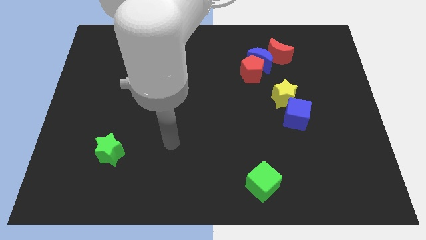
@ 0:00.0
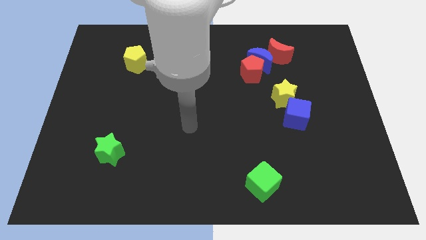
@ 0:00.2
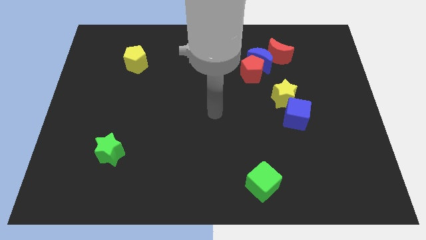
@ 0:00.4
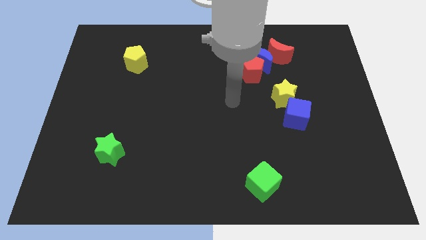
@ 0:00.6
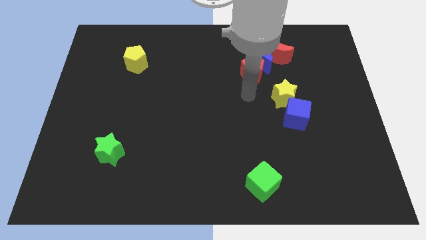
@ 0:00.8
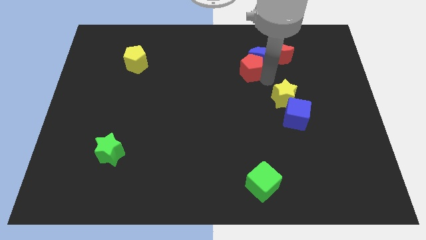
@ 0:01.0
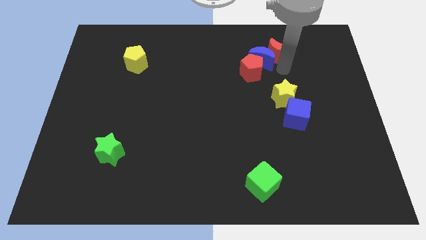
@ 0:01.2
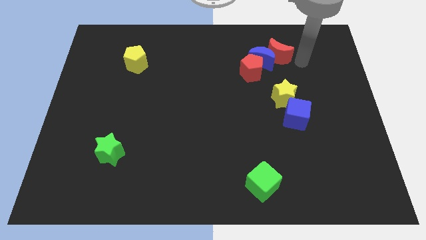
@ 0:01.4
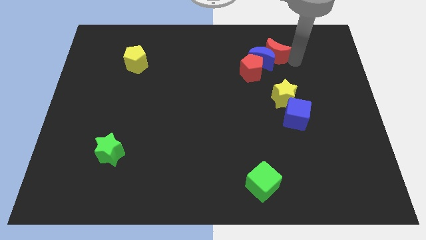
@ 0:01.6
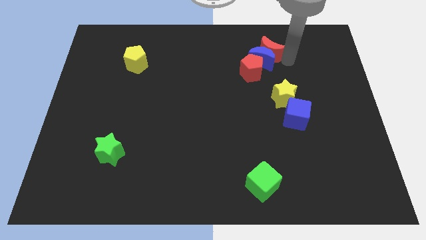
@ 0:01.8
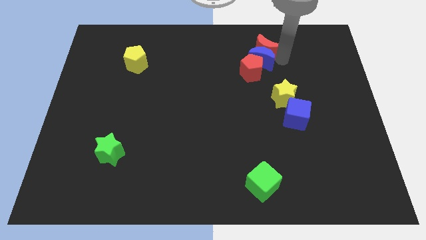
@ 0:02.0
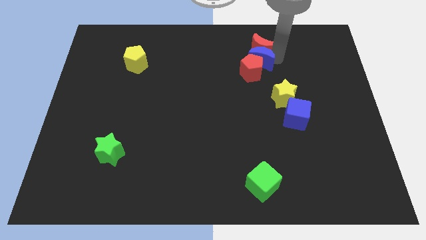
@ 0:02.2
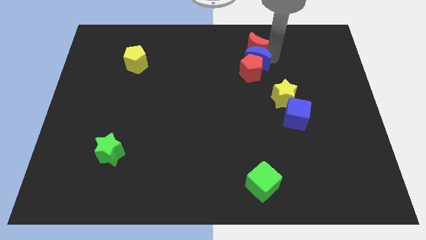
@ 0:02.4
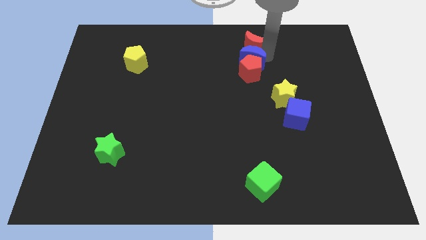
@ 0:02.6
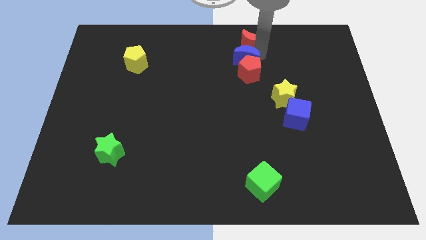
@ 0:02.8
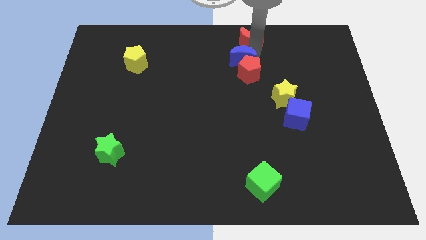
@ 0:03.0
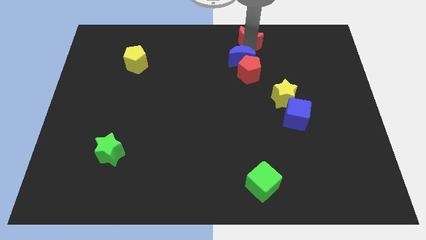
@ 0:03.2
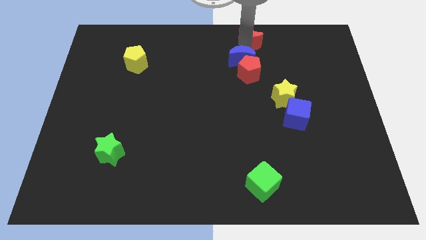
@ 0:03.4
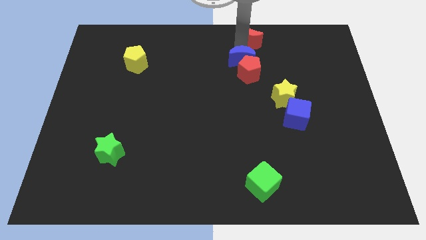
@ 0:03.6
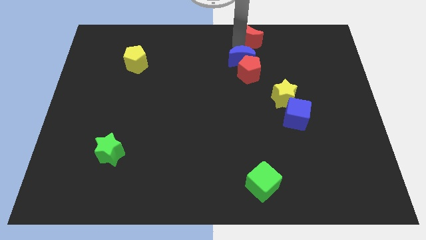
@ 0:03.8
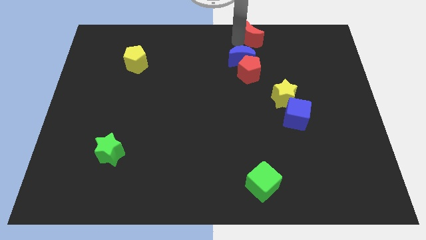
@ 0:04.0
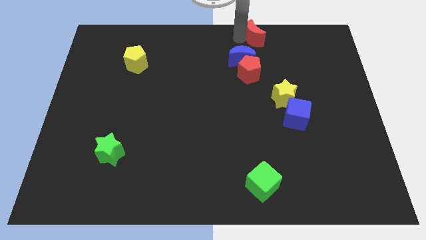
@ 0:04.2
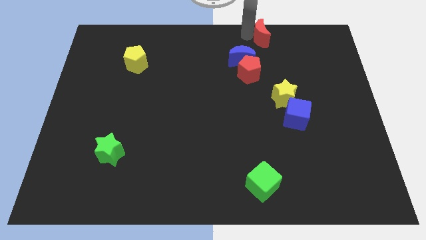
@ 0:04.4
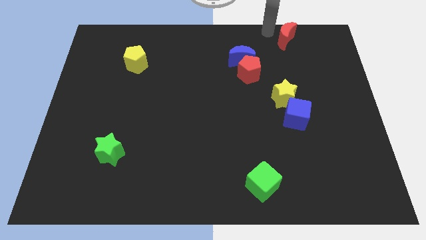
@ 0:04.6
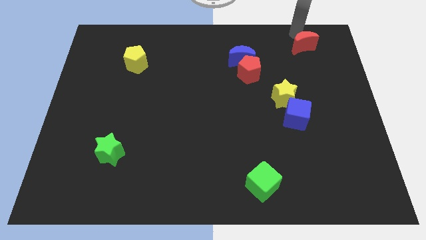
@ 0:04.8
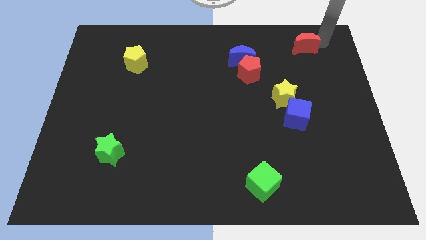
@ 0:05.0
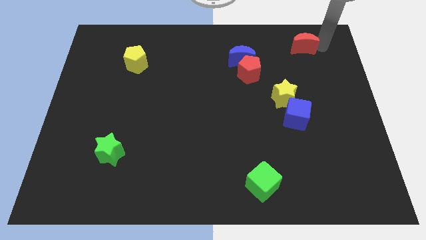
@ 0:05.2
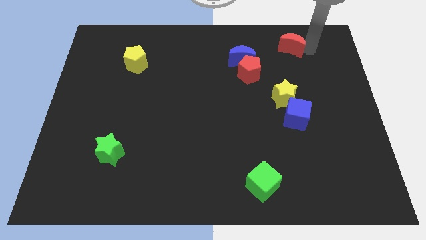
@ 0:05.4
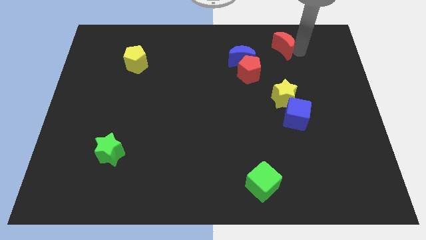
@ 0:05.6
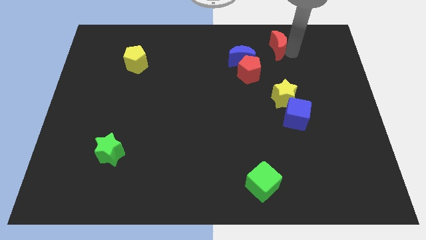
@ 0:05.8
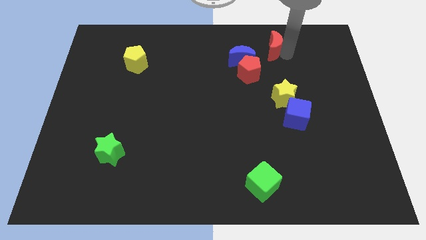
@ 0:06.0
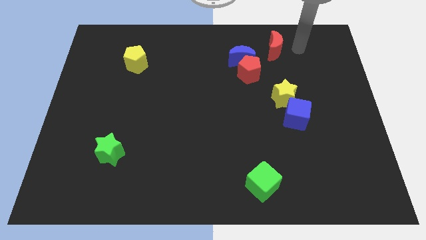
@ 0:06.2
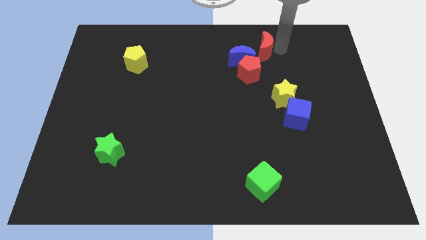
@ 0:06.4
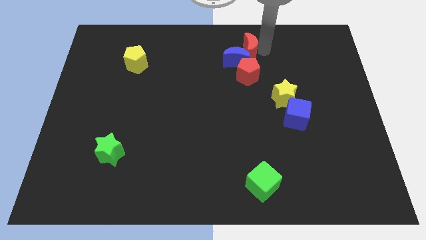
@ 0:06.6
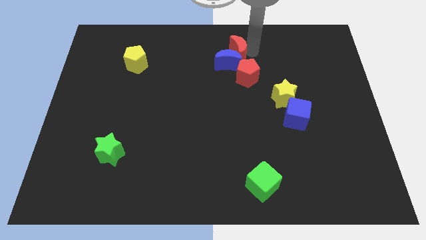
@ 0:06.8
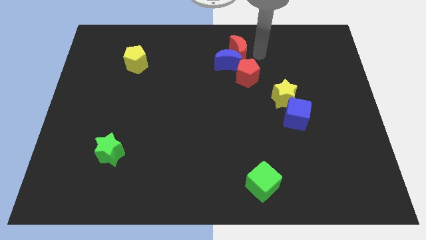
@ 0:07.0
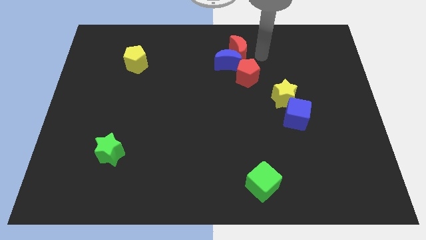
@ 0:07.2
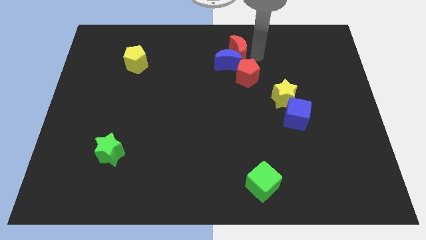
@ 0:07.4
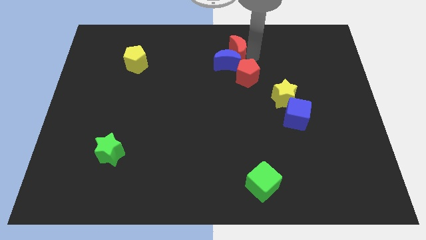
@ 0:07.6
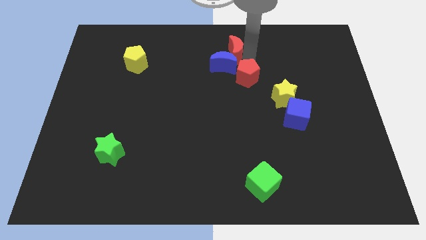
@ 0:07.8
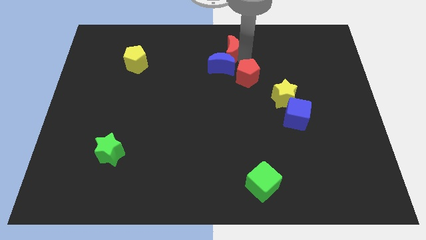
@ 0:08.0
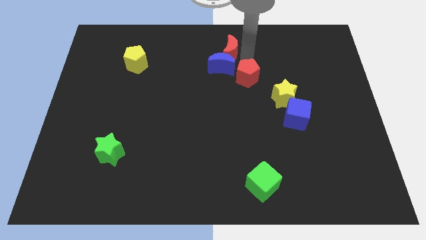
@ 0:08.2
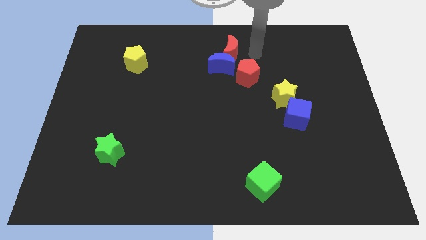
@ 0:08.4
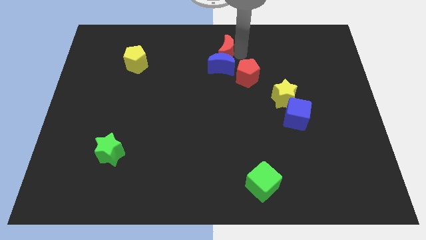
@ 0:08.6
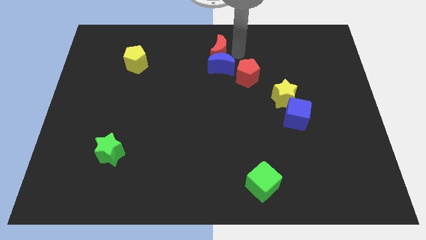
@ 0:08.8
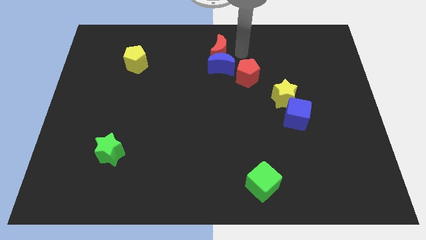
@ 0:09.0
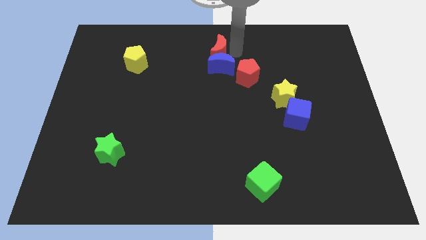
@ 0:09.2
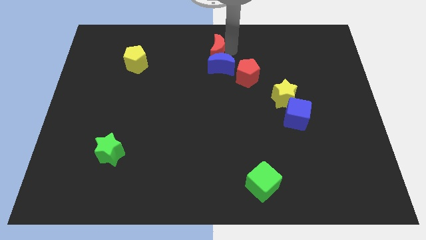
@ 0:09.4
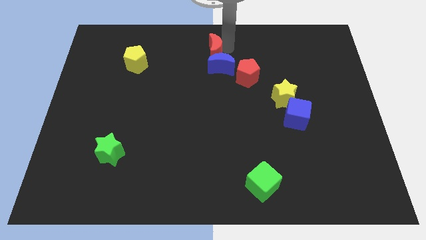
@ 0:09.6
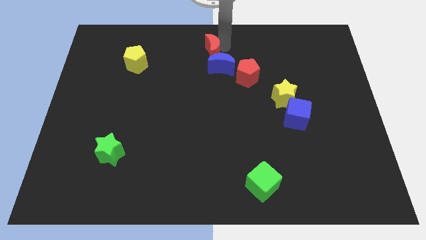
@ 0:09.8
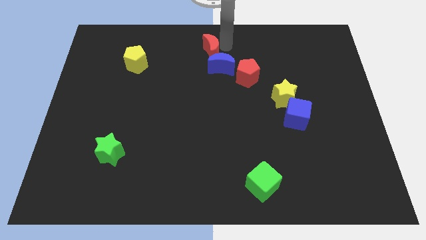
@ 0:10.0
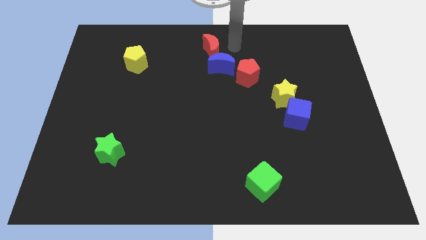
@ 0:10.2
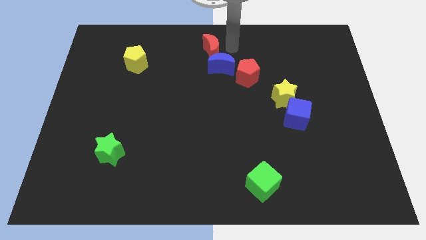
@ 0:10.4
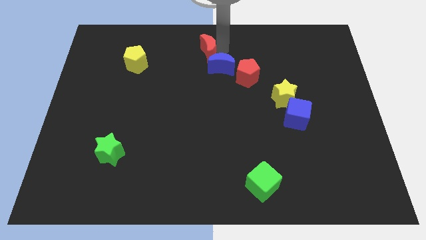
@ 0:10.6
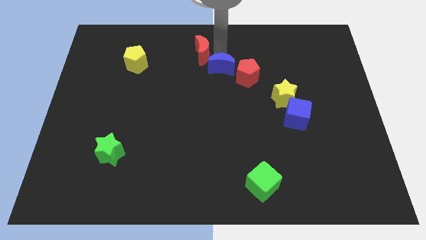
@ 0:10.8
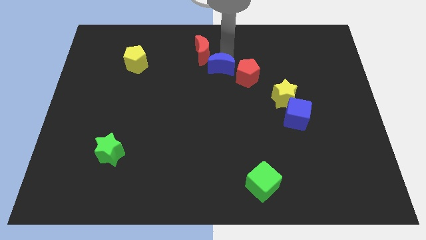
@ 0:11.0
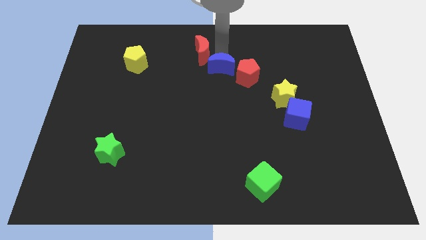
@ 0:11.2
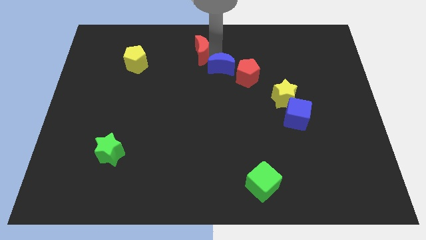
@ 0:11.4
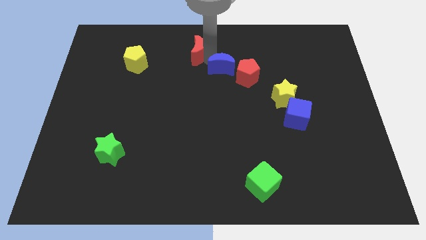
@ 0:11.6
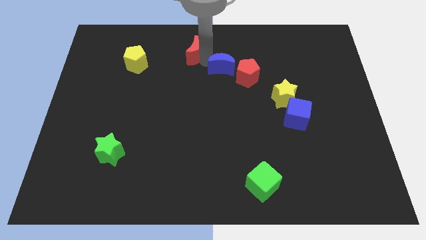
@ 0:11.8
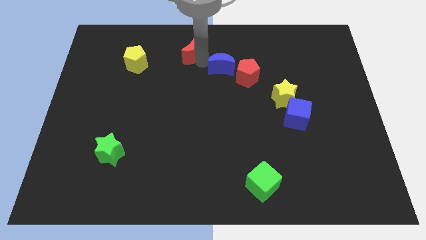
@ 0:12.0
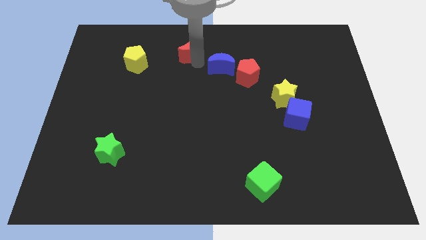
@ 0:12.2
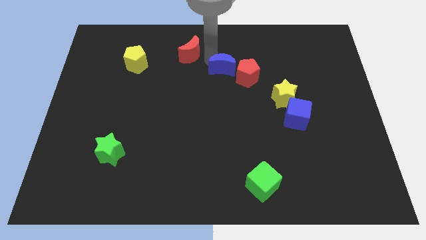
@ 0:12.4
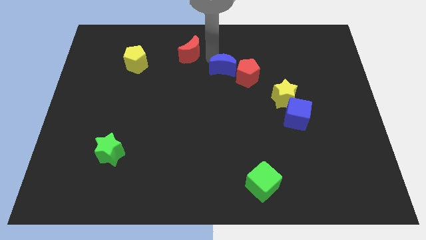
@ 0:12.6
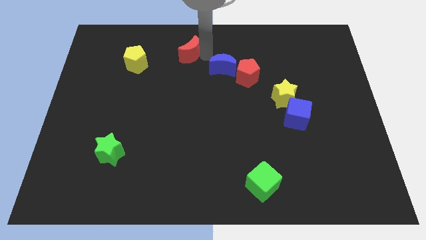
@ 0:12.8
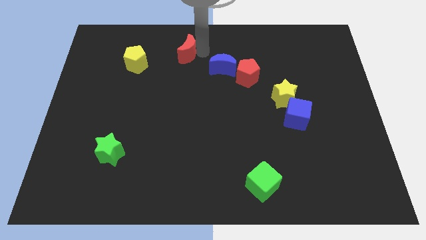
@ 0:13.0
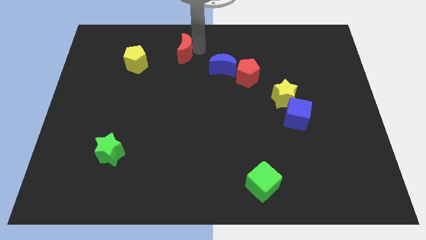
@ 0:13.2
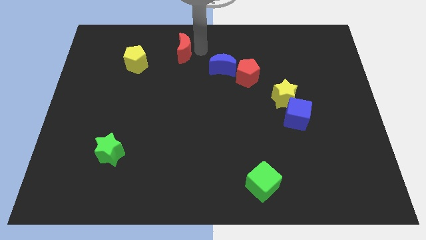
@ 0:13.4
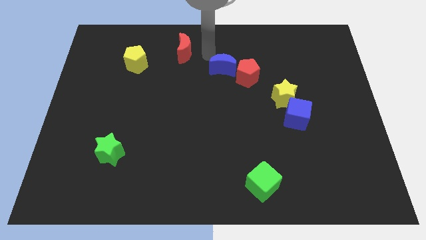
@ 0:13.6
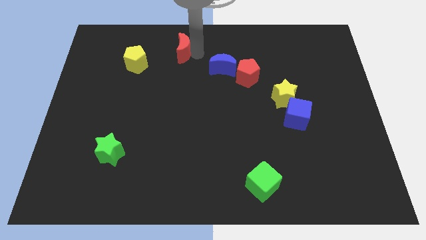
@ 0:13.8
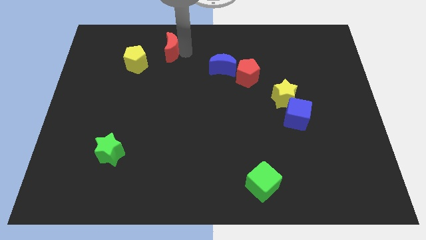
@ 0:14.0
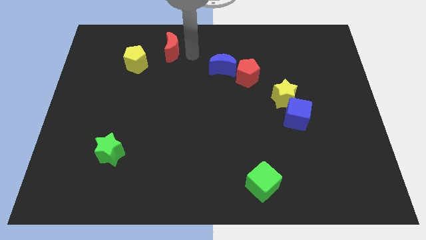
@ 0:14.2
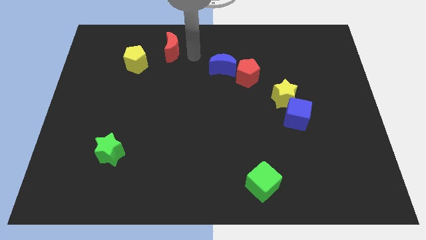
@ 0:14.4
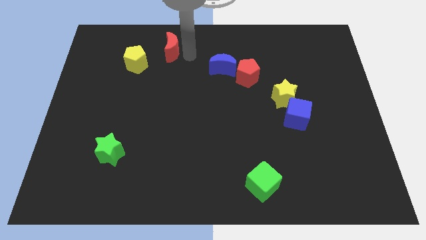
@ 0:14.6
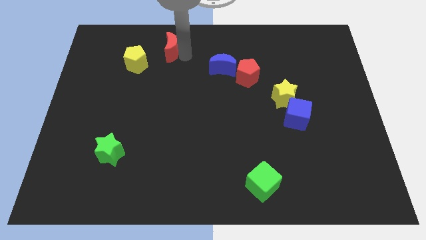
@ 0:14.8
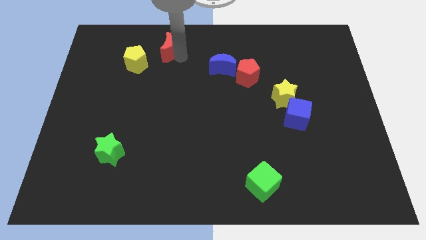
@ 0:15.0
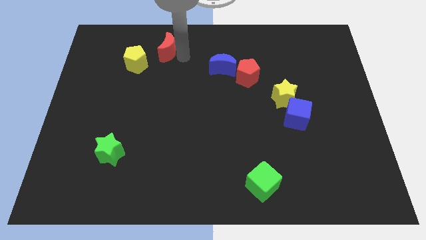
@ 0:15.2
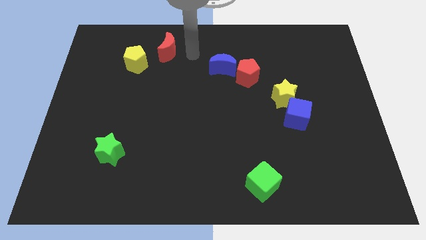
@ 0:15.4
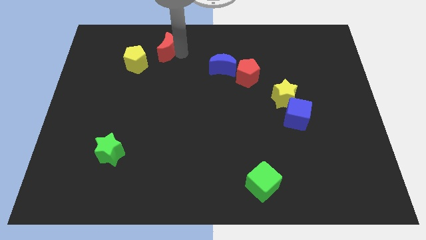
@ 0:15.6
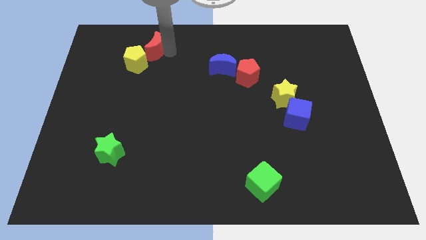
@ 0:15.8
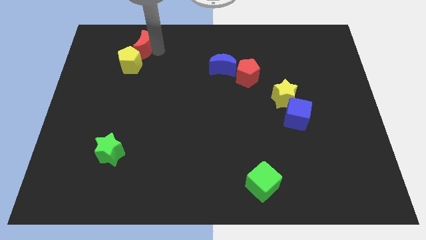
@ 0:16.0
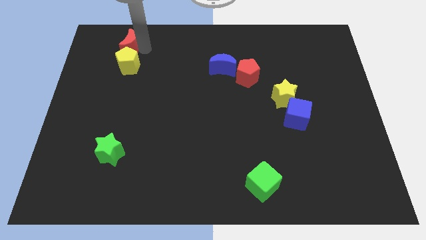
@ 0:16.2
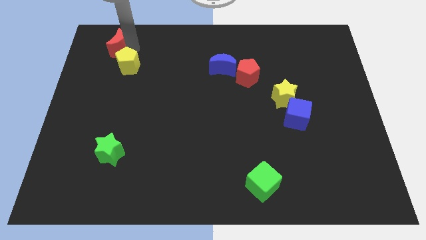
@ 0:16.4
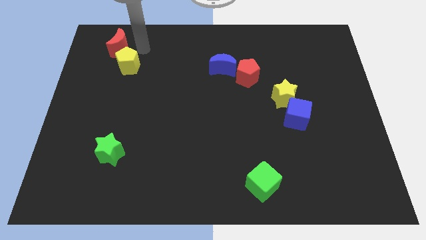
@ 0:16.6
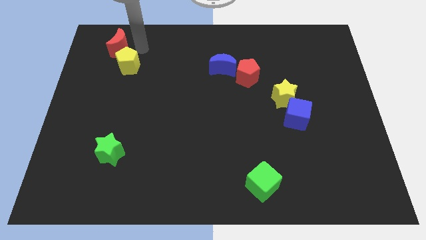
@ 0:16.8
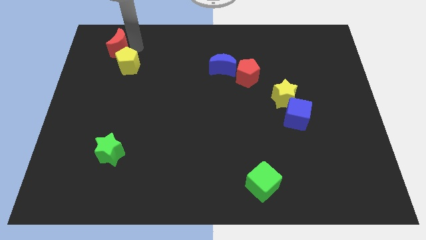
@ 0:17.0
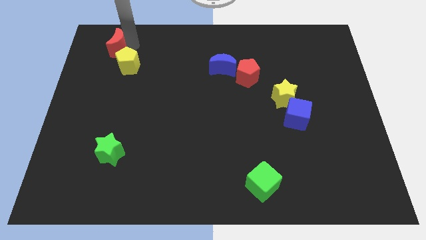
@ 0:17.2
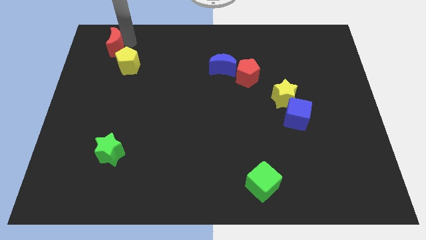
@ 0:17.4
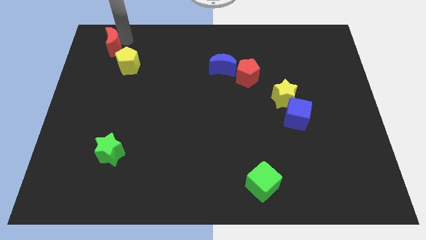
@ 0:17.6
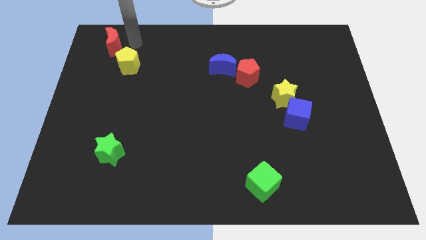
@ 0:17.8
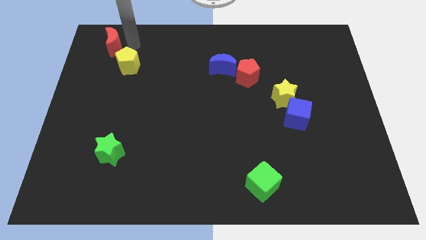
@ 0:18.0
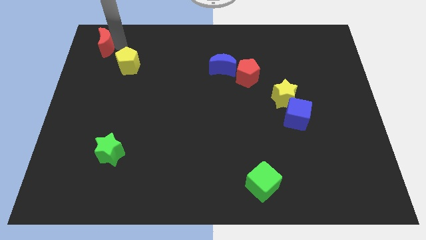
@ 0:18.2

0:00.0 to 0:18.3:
put the red moon to the top left
